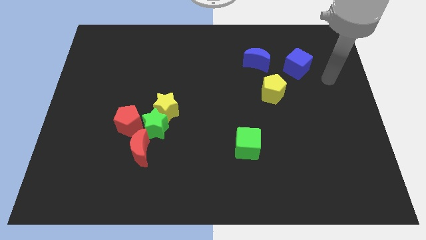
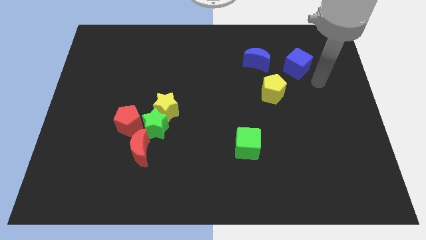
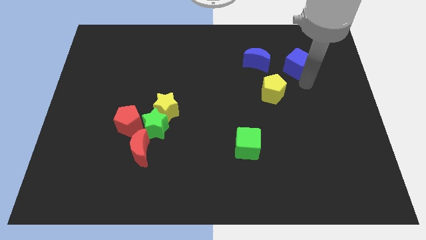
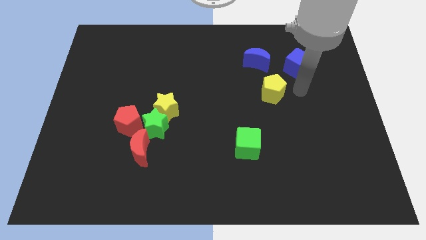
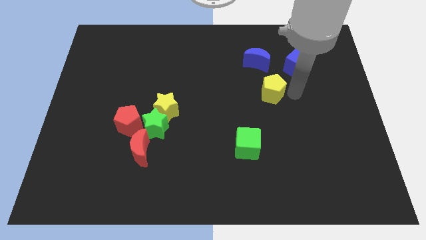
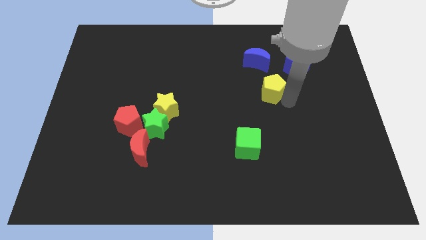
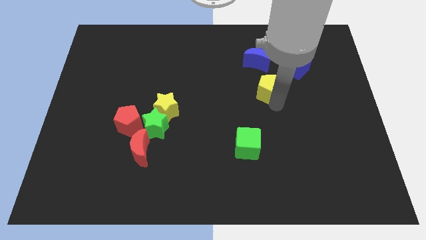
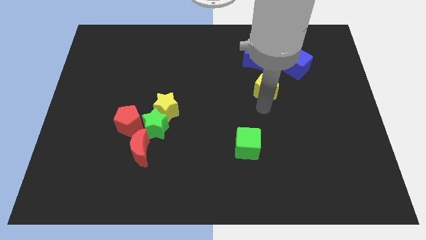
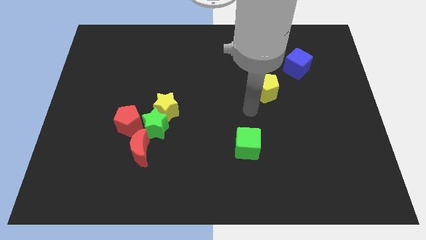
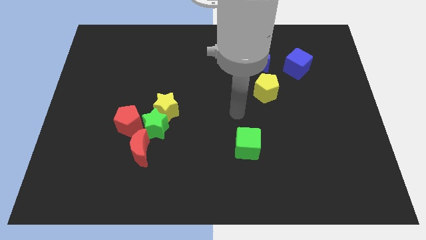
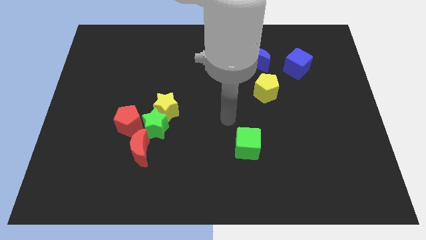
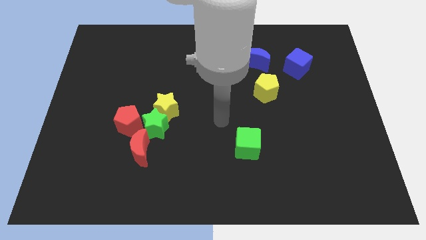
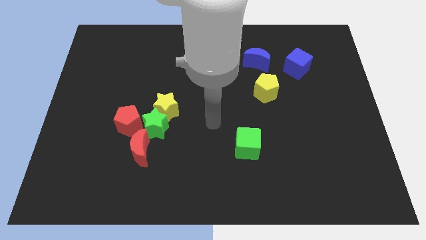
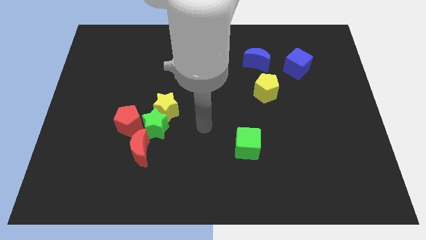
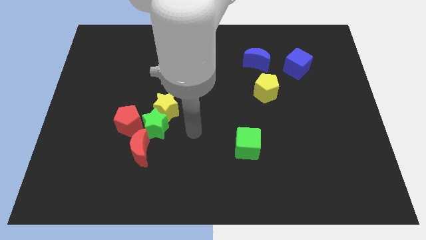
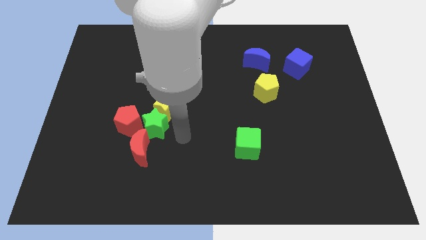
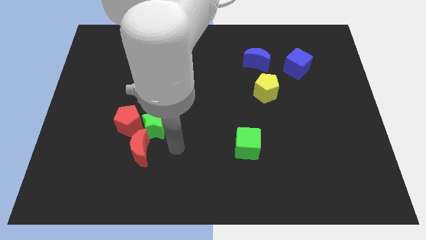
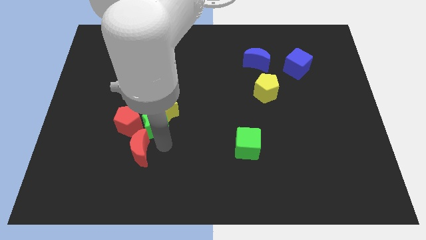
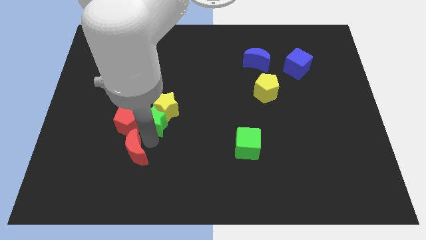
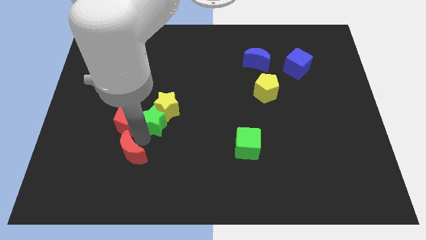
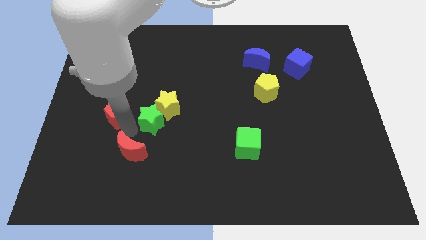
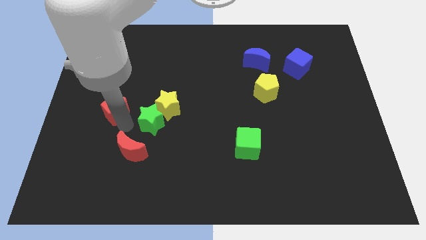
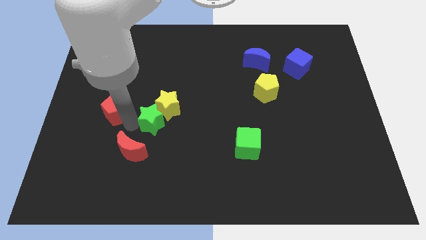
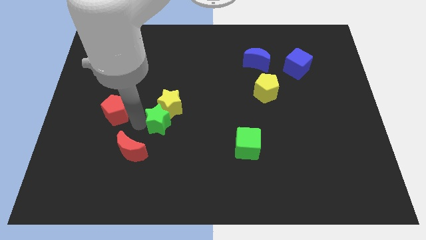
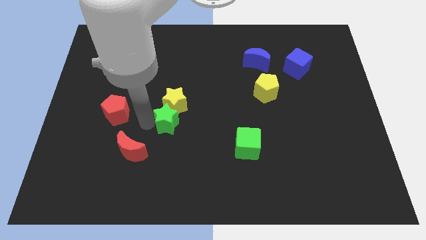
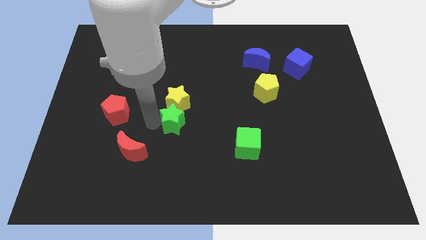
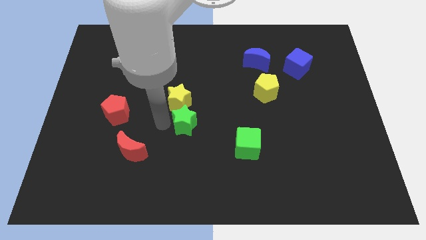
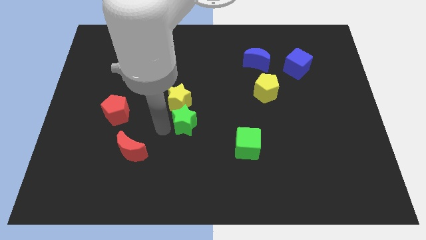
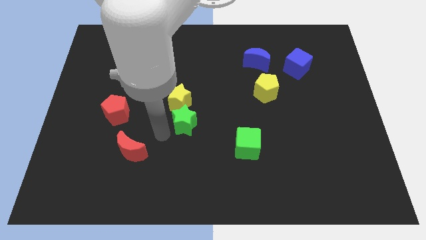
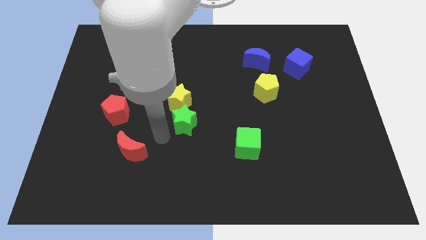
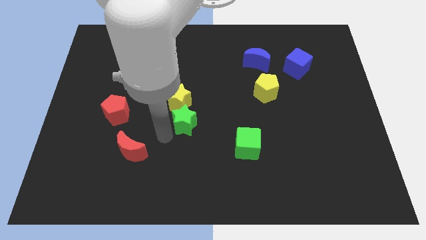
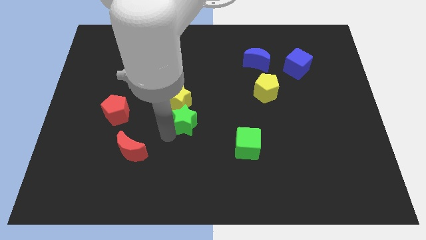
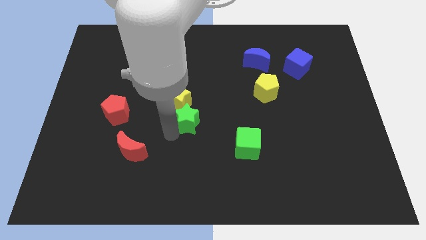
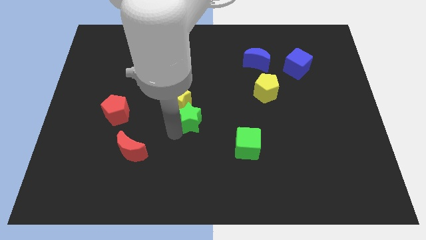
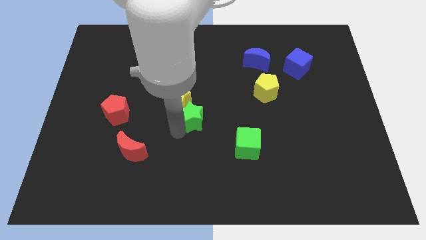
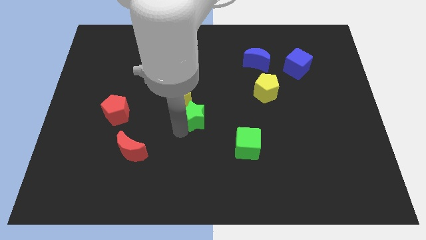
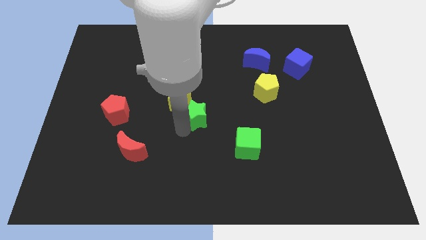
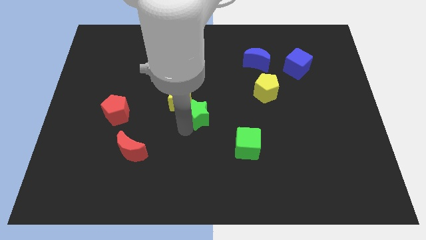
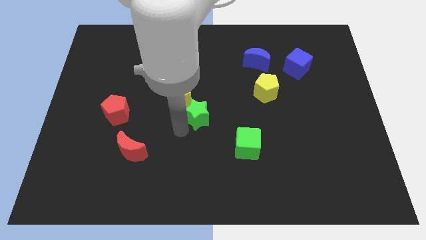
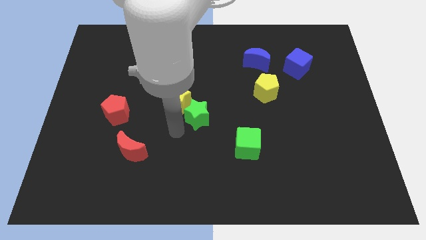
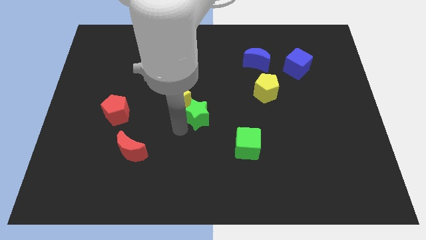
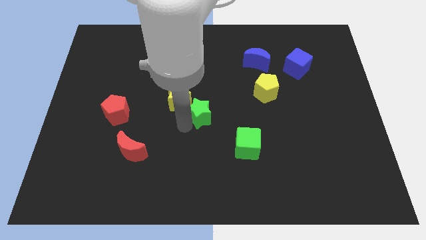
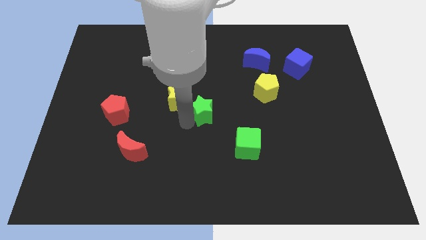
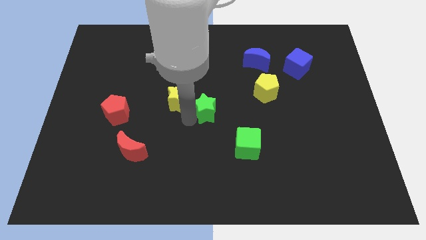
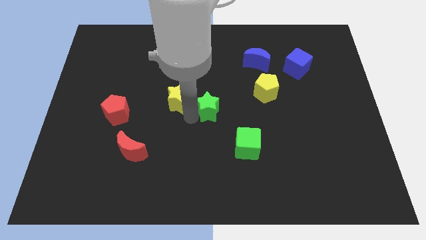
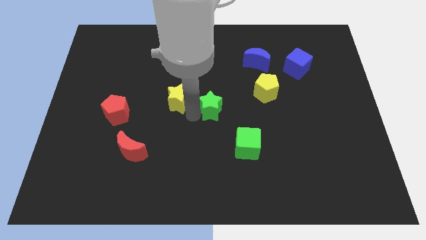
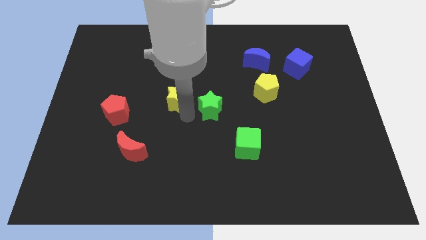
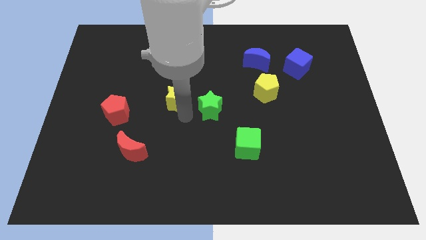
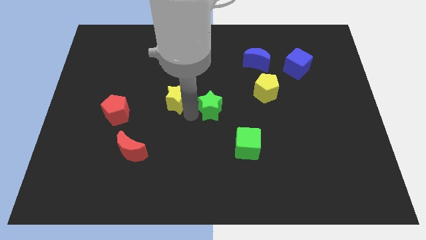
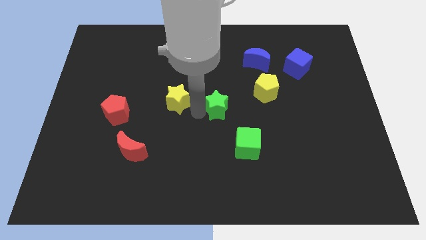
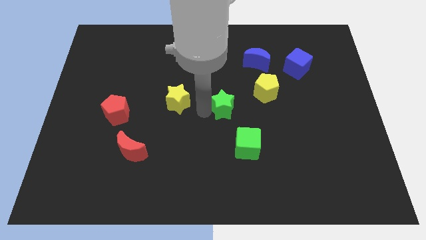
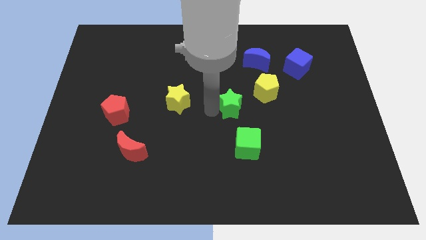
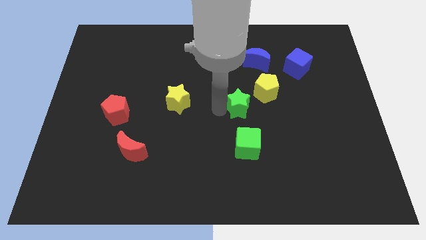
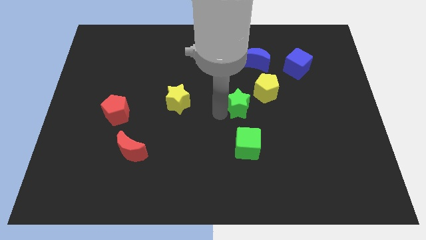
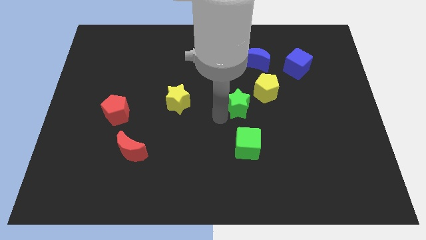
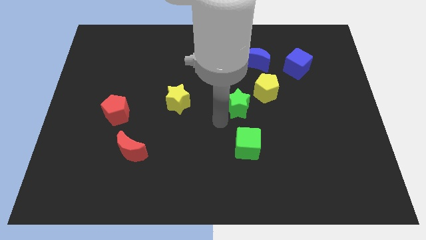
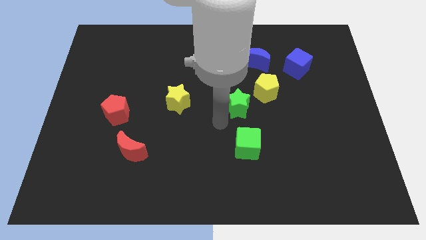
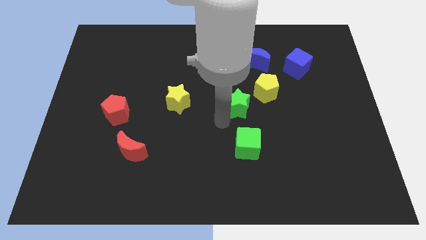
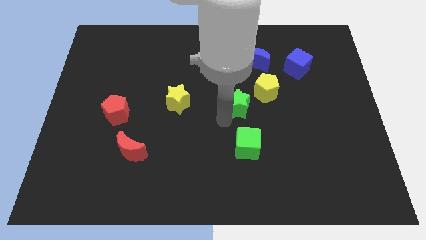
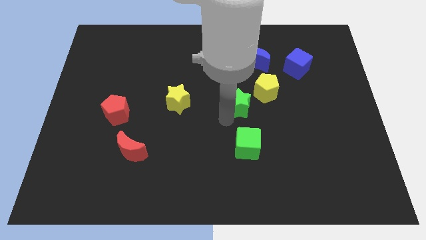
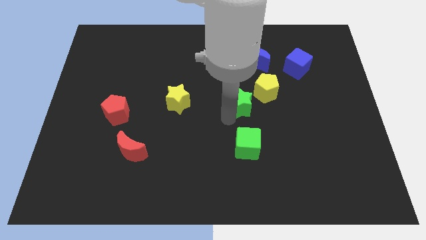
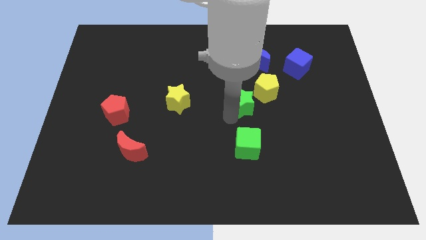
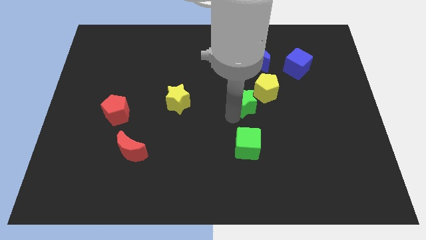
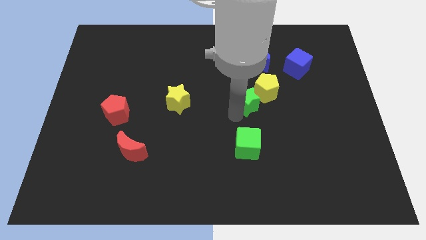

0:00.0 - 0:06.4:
push the green star to the yellow pentagon
